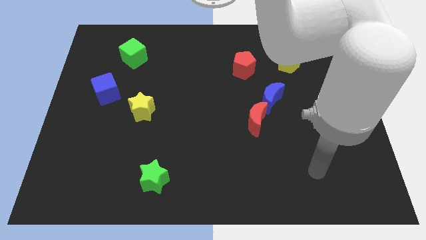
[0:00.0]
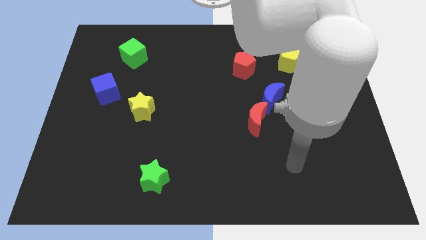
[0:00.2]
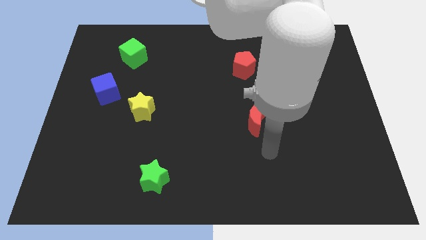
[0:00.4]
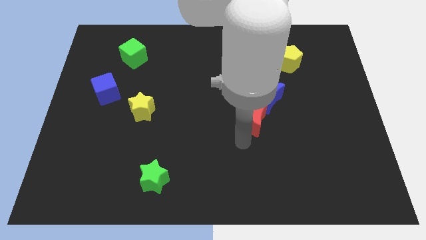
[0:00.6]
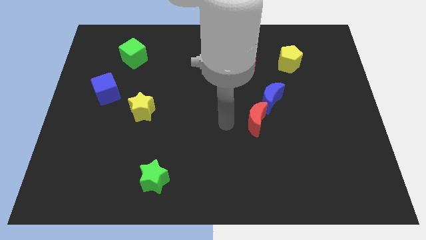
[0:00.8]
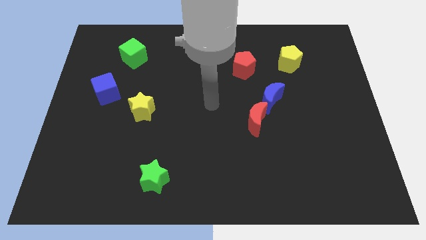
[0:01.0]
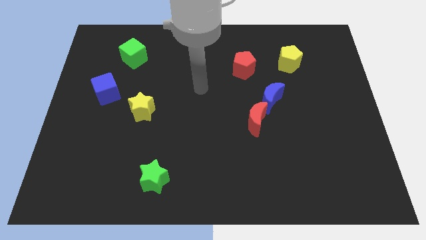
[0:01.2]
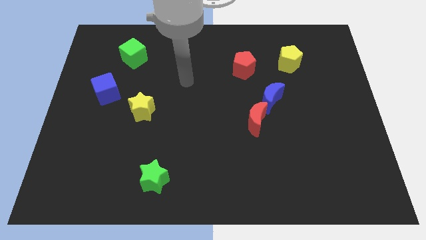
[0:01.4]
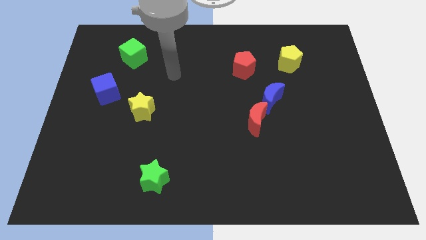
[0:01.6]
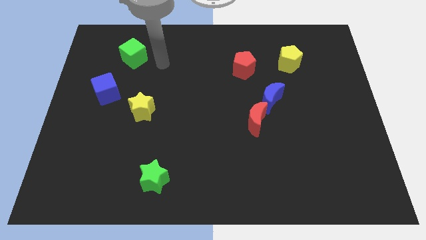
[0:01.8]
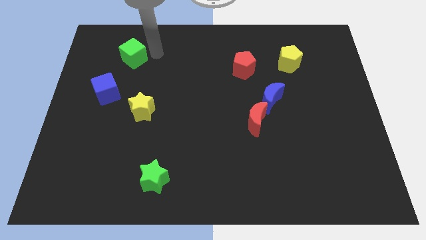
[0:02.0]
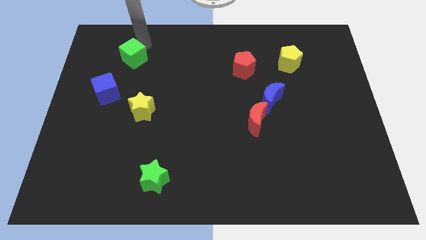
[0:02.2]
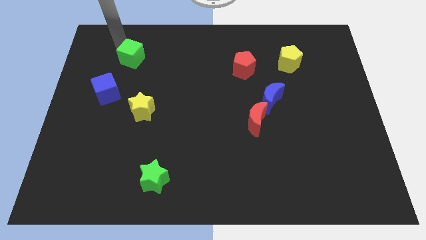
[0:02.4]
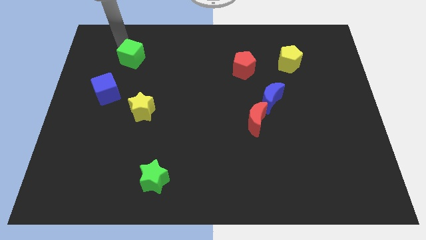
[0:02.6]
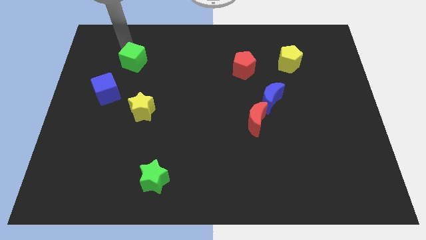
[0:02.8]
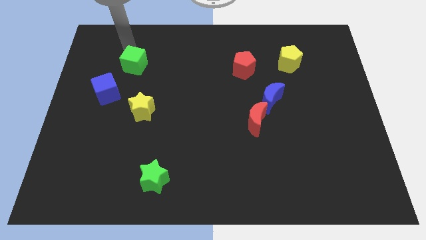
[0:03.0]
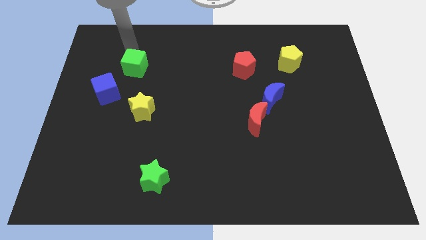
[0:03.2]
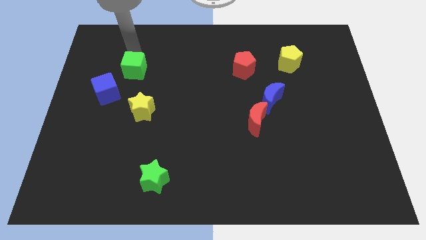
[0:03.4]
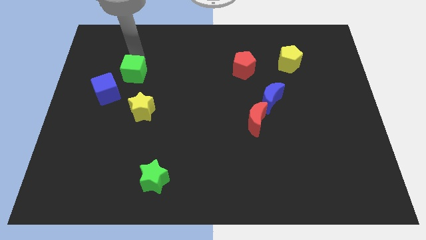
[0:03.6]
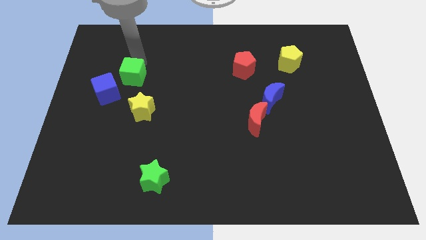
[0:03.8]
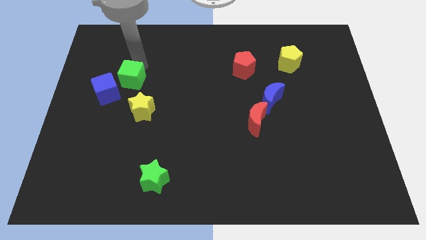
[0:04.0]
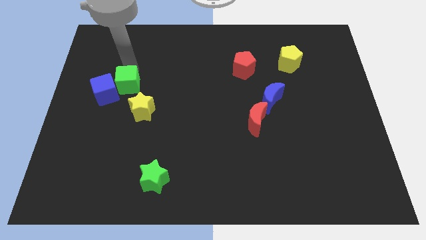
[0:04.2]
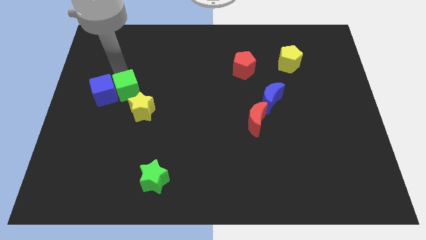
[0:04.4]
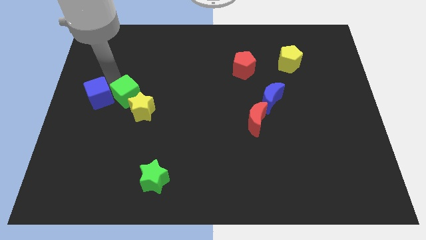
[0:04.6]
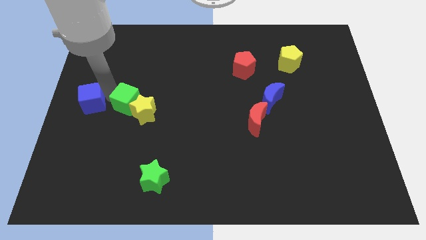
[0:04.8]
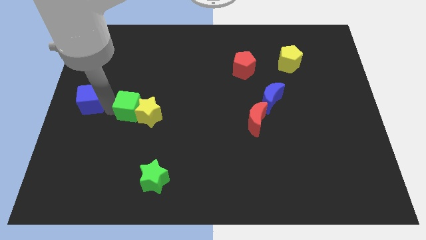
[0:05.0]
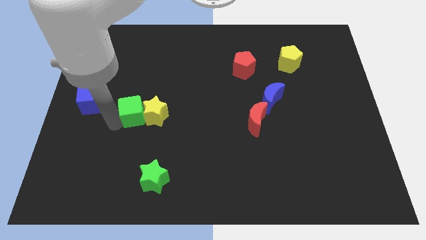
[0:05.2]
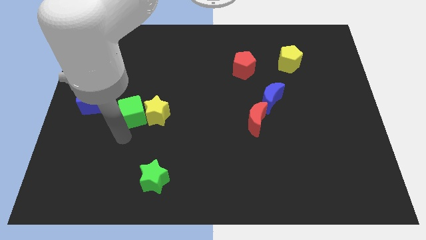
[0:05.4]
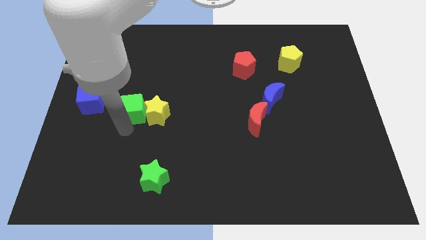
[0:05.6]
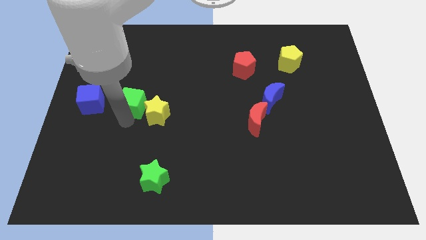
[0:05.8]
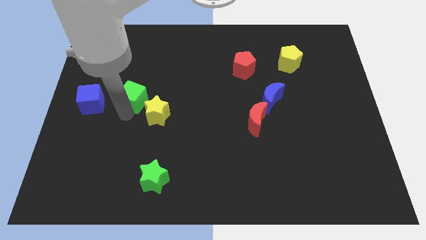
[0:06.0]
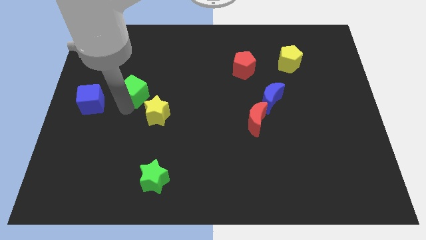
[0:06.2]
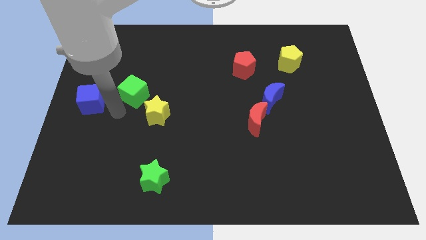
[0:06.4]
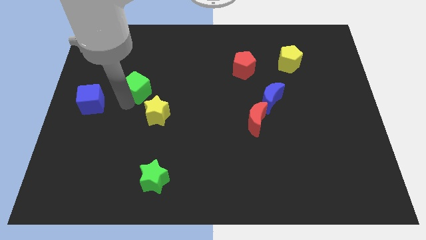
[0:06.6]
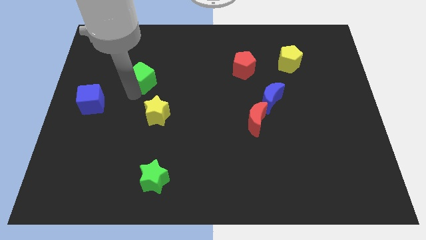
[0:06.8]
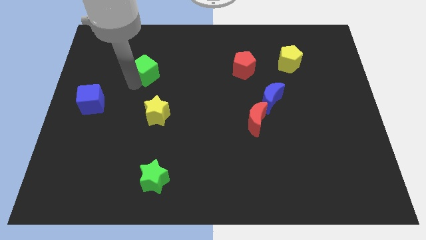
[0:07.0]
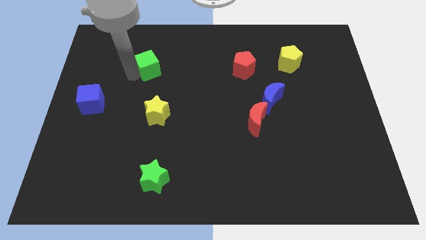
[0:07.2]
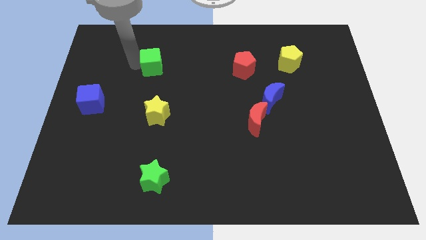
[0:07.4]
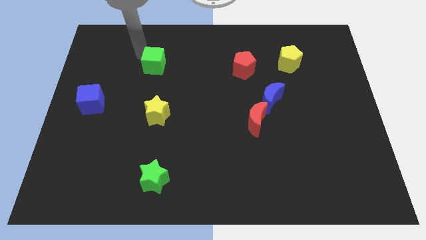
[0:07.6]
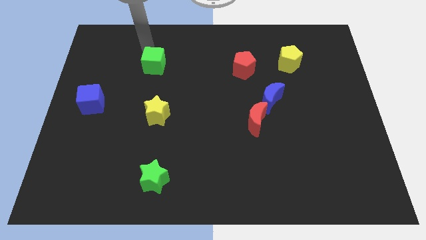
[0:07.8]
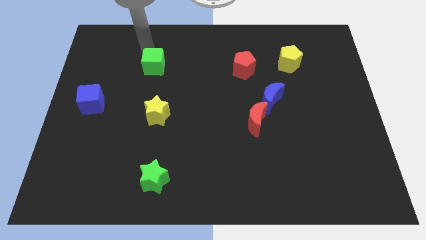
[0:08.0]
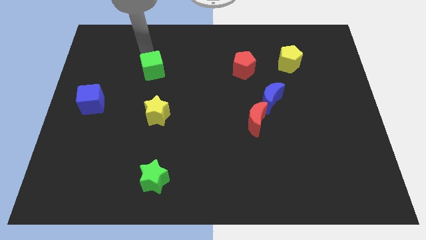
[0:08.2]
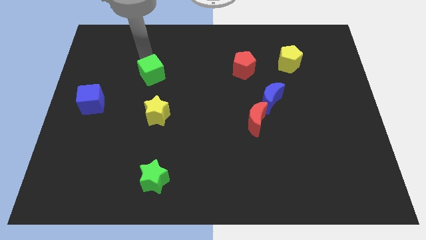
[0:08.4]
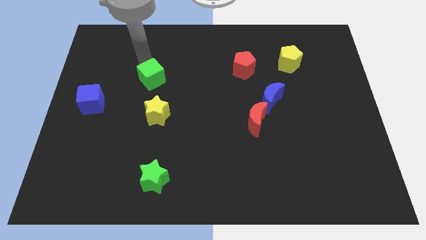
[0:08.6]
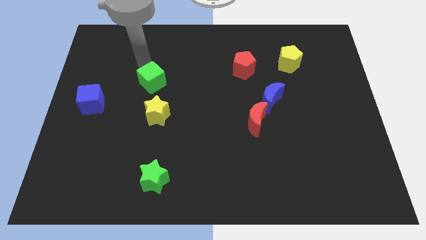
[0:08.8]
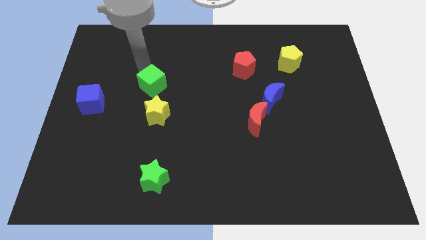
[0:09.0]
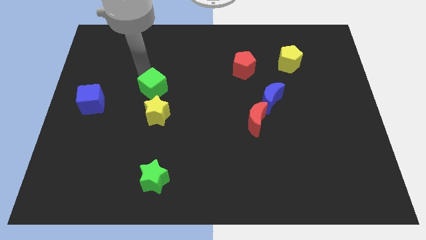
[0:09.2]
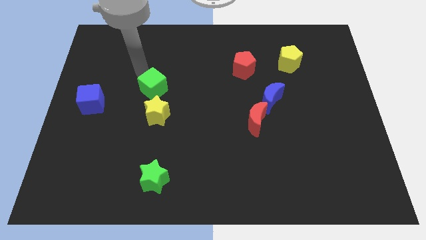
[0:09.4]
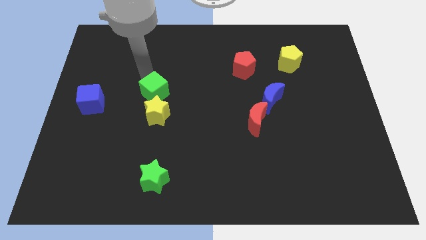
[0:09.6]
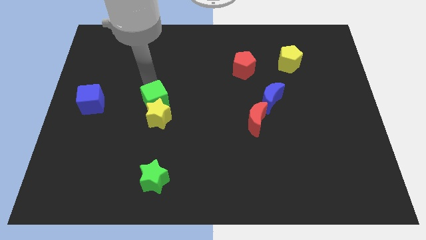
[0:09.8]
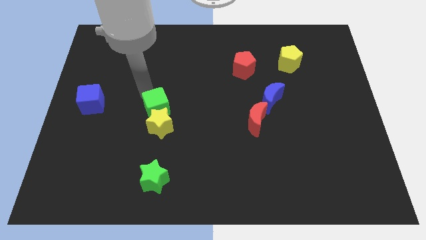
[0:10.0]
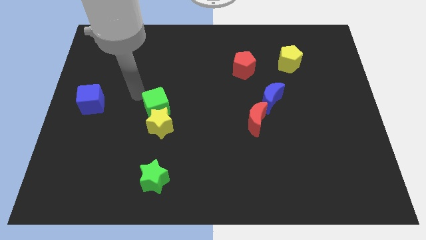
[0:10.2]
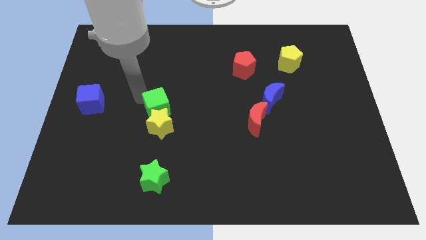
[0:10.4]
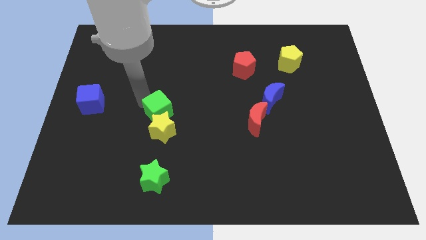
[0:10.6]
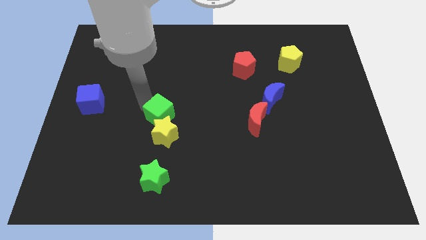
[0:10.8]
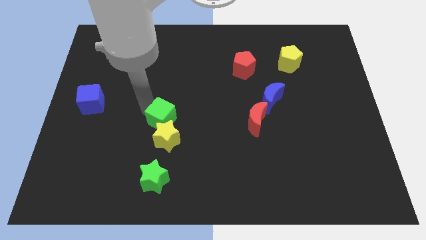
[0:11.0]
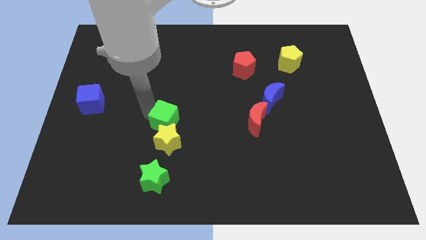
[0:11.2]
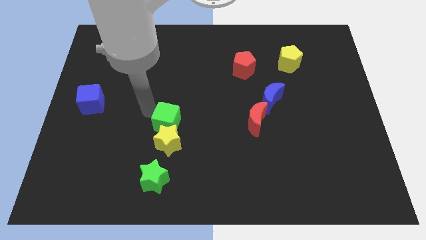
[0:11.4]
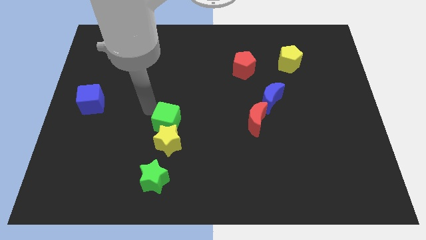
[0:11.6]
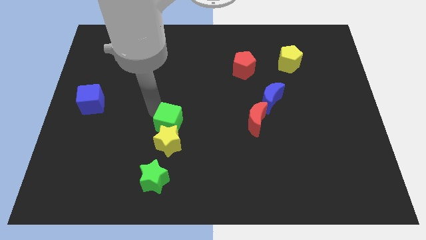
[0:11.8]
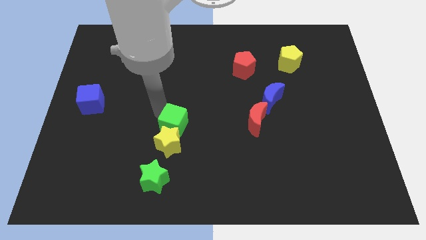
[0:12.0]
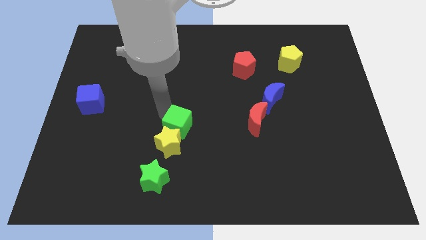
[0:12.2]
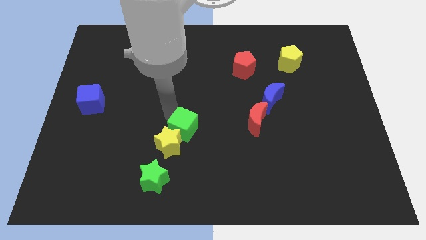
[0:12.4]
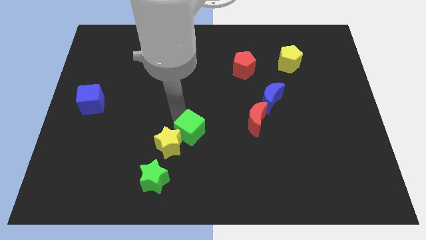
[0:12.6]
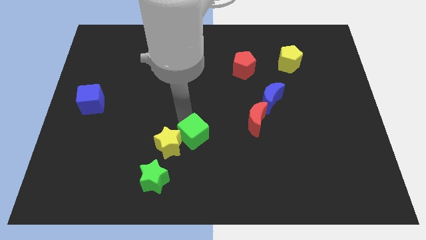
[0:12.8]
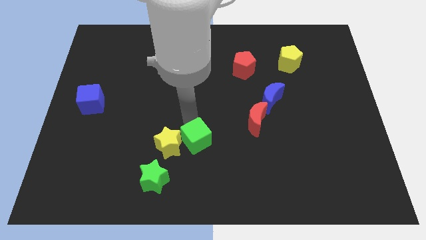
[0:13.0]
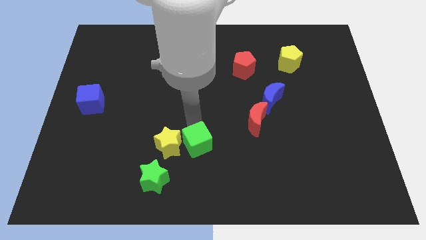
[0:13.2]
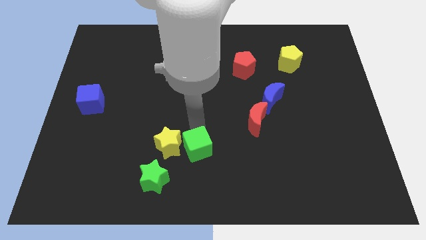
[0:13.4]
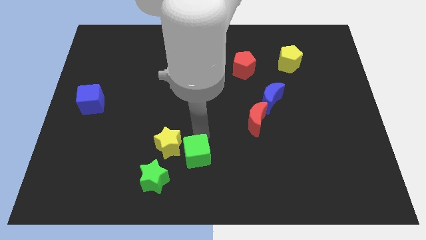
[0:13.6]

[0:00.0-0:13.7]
slide the green cube to the bottom
